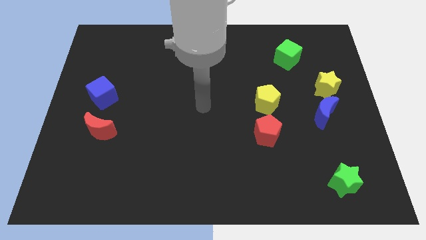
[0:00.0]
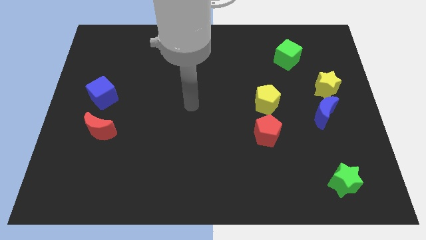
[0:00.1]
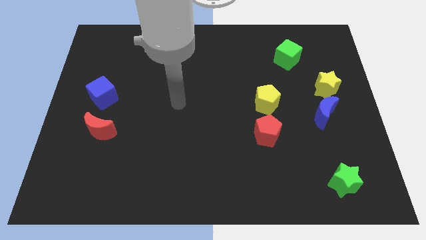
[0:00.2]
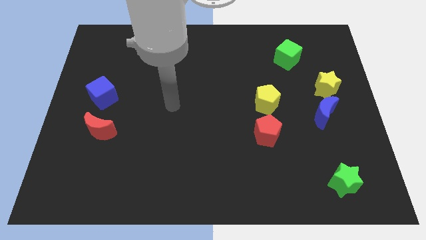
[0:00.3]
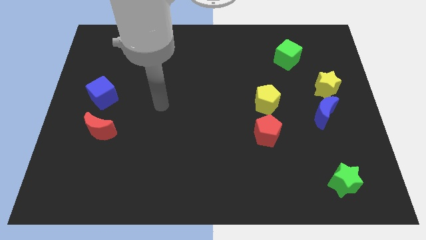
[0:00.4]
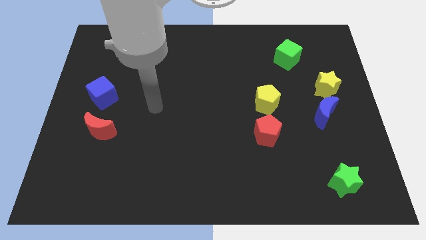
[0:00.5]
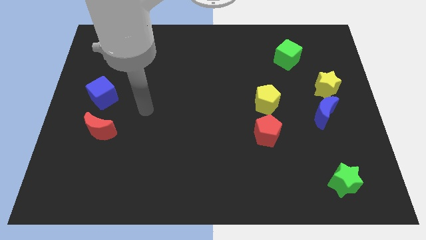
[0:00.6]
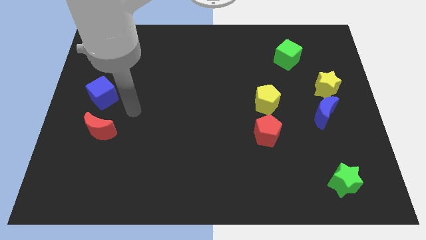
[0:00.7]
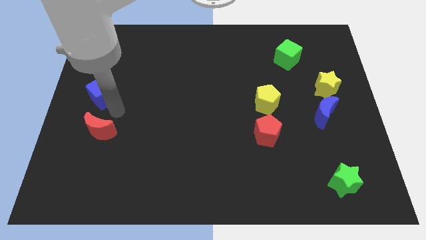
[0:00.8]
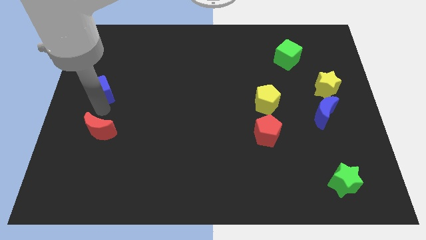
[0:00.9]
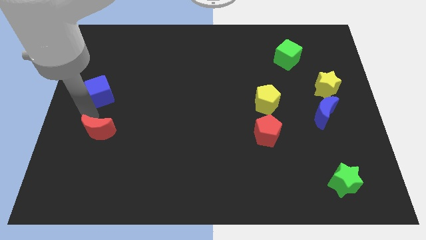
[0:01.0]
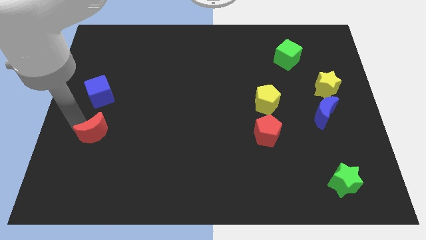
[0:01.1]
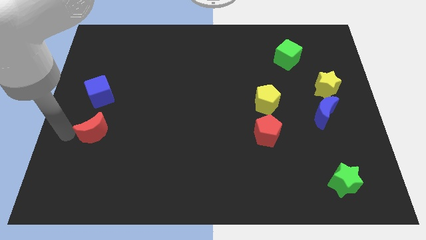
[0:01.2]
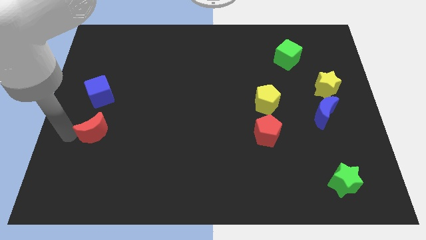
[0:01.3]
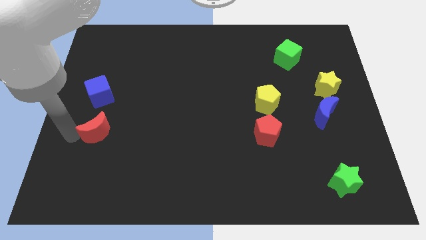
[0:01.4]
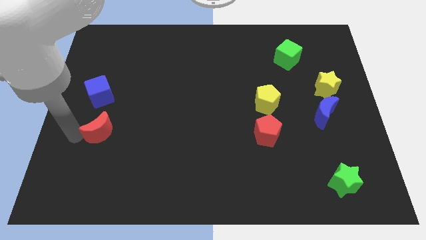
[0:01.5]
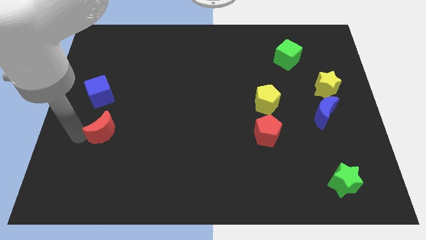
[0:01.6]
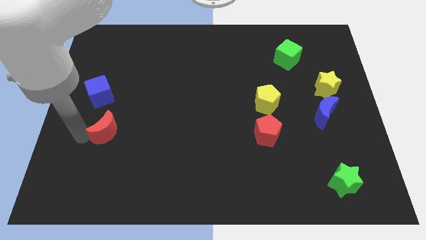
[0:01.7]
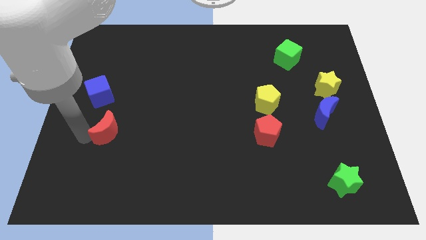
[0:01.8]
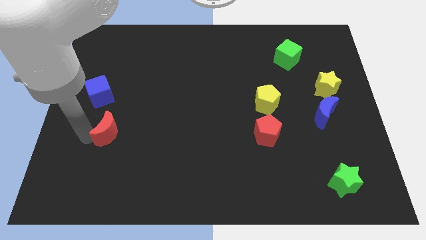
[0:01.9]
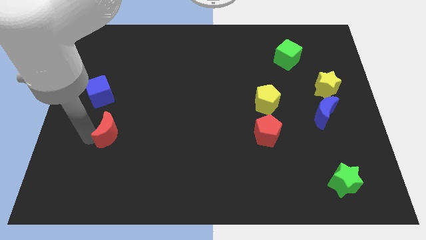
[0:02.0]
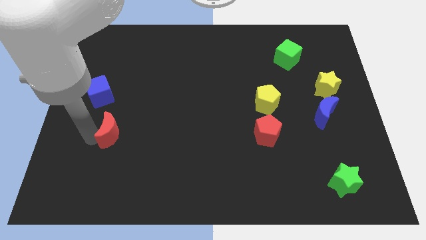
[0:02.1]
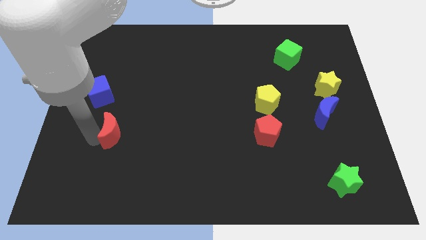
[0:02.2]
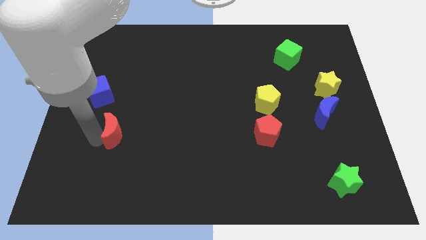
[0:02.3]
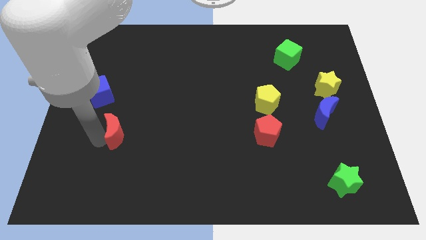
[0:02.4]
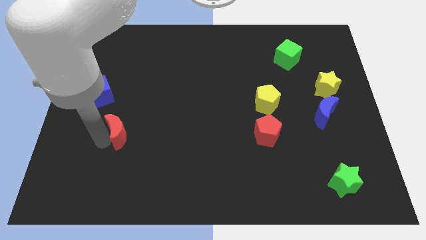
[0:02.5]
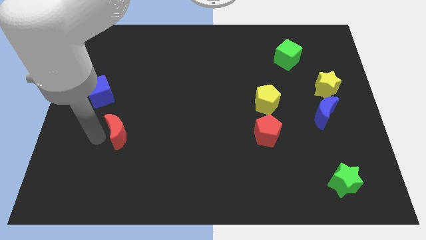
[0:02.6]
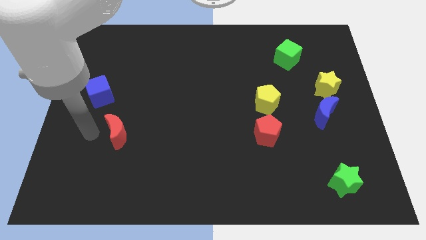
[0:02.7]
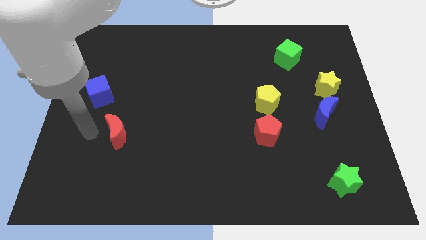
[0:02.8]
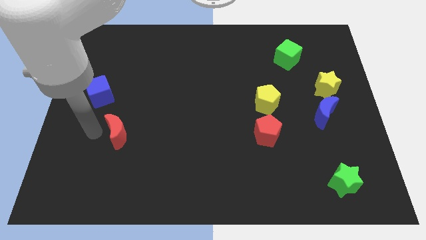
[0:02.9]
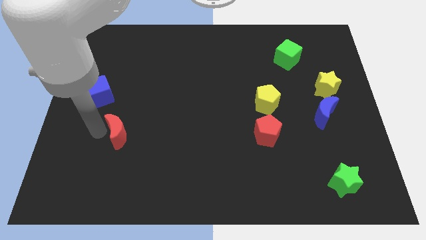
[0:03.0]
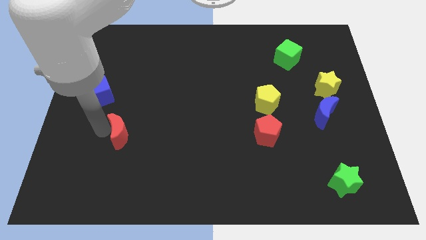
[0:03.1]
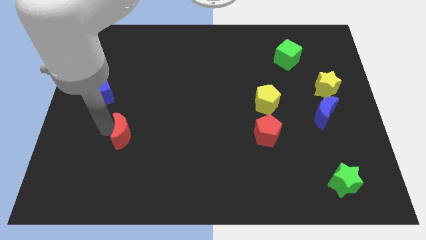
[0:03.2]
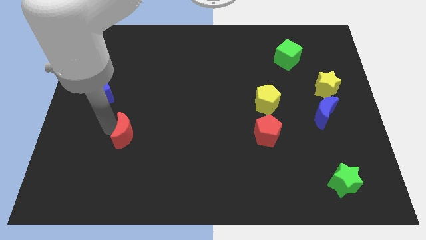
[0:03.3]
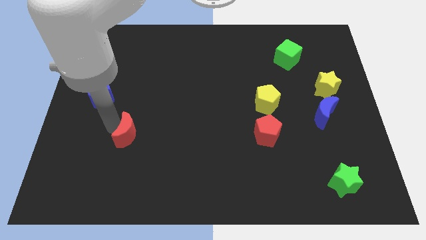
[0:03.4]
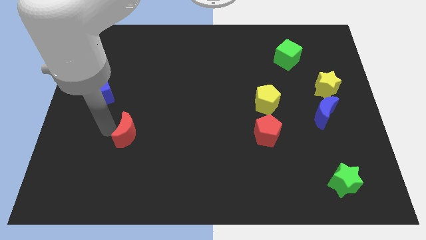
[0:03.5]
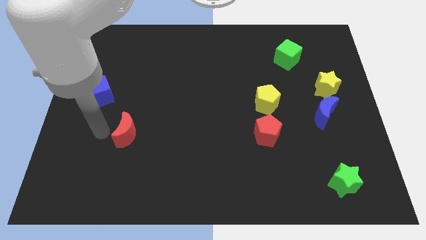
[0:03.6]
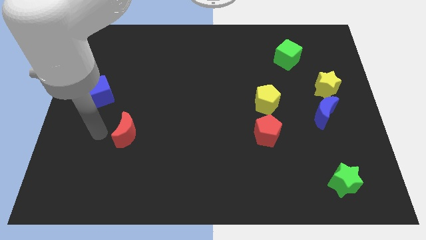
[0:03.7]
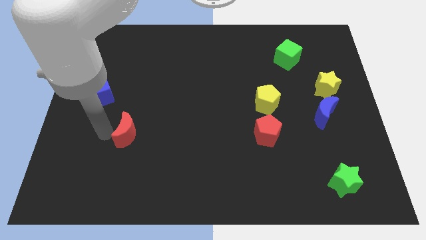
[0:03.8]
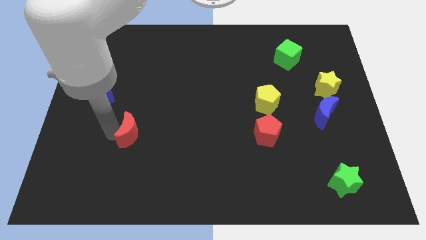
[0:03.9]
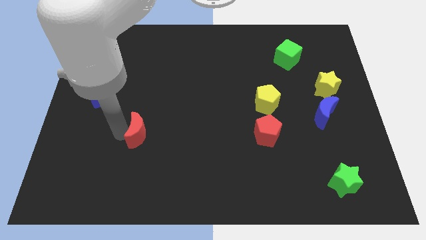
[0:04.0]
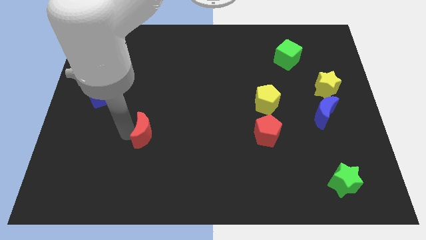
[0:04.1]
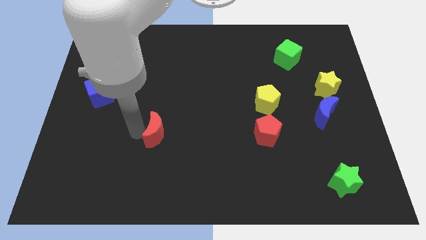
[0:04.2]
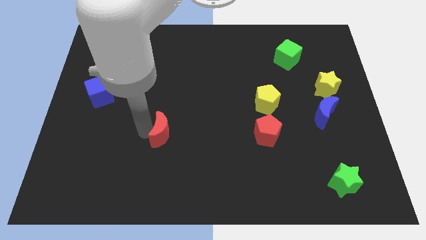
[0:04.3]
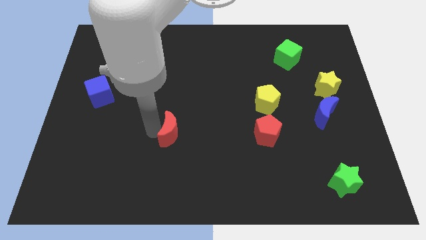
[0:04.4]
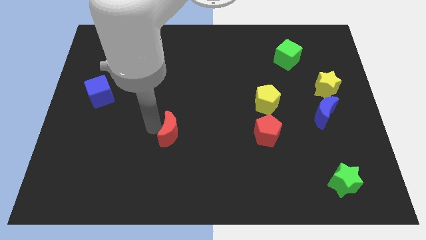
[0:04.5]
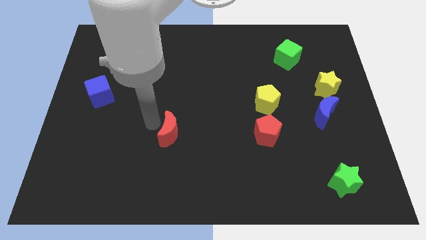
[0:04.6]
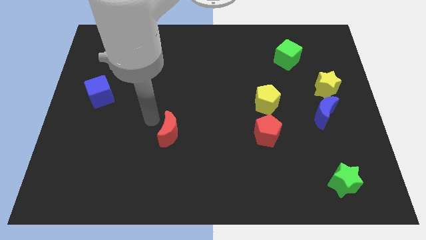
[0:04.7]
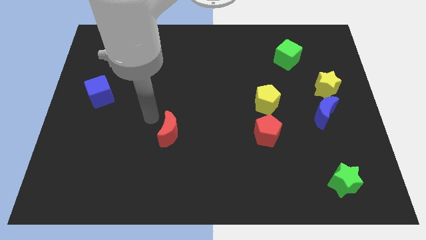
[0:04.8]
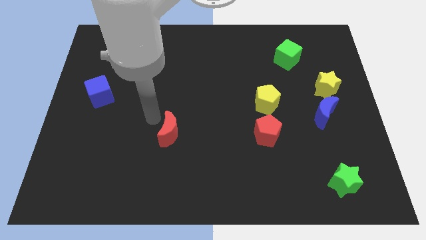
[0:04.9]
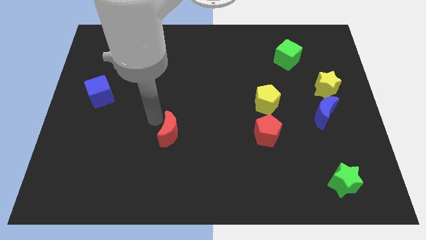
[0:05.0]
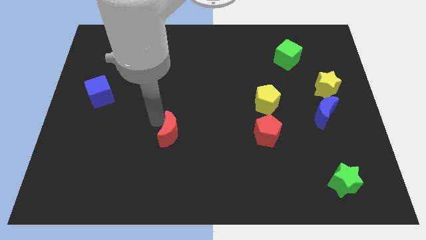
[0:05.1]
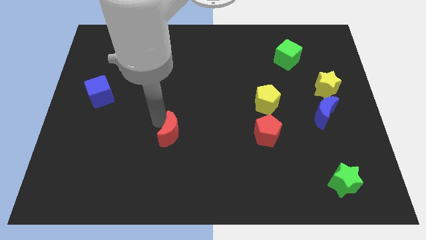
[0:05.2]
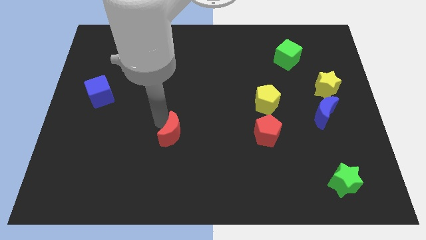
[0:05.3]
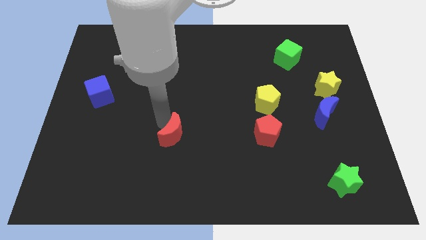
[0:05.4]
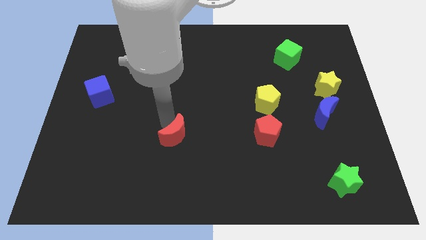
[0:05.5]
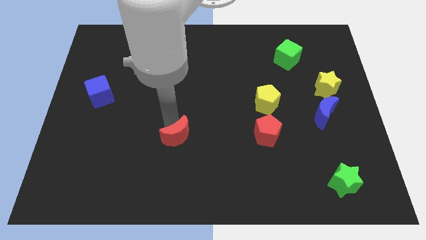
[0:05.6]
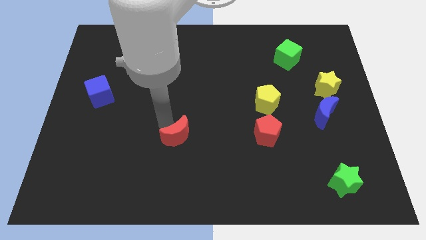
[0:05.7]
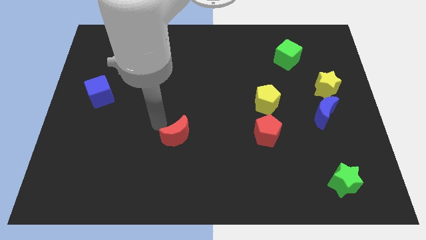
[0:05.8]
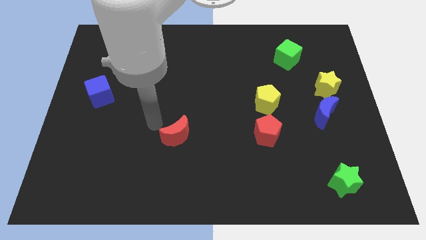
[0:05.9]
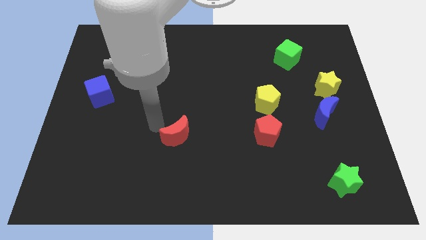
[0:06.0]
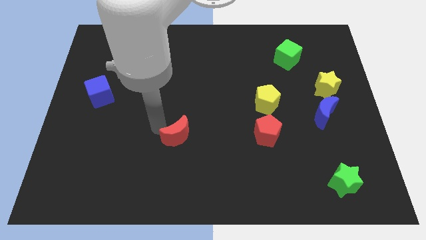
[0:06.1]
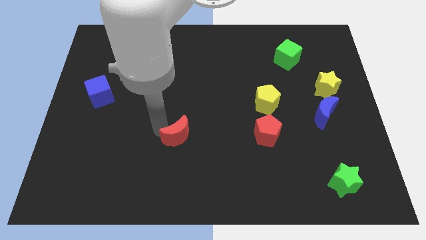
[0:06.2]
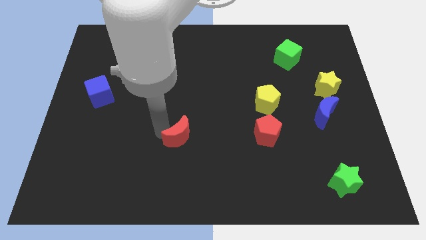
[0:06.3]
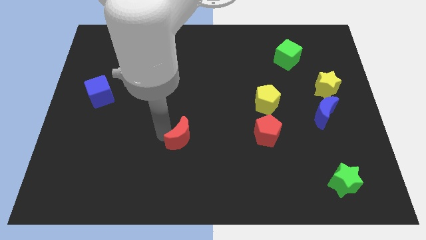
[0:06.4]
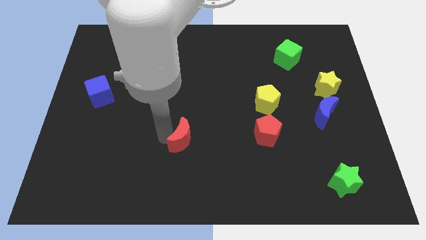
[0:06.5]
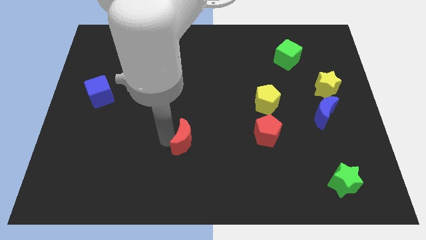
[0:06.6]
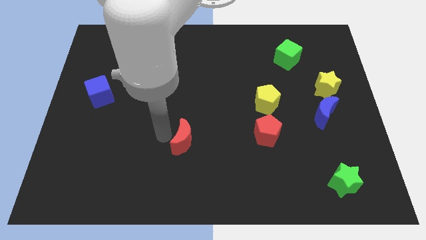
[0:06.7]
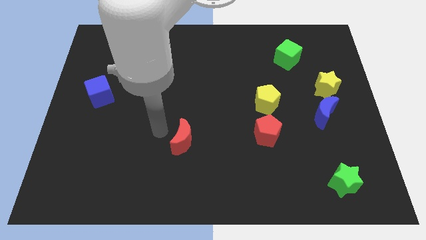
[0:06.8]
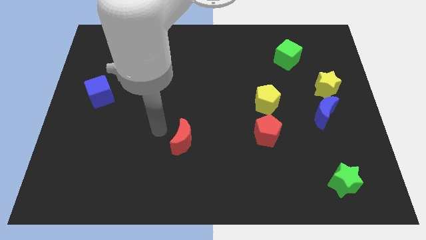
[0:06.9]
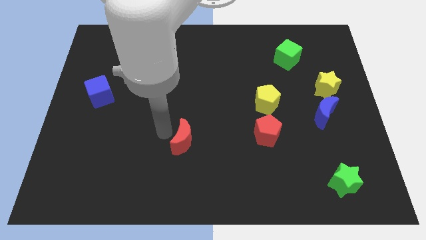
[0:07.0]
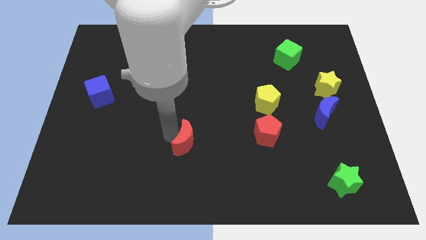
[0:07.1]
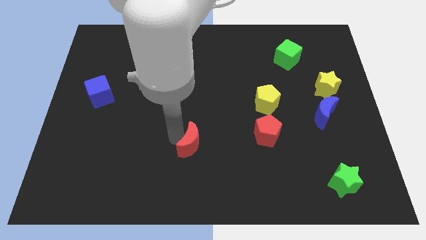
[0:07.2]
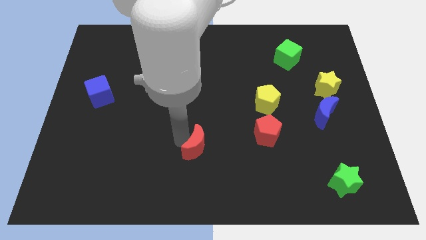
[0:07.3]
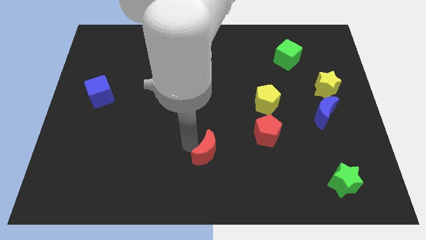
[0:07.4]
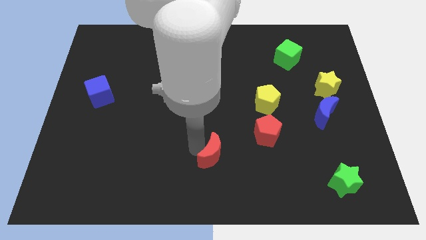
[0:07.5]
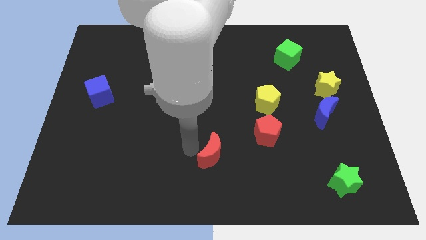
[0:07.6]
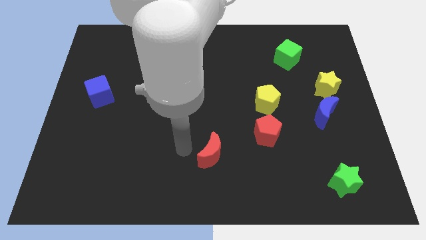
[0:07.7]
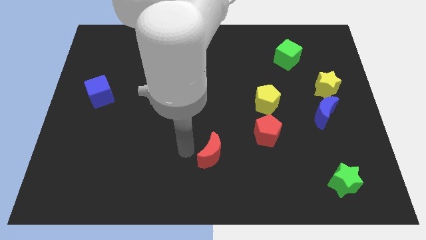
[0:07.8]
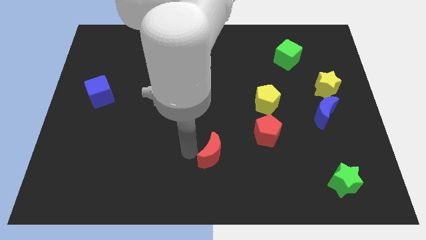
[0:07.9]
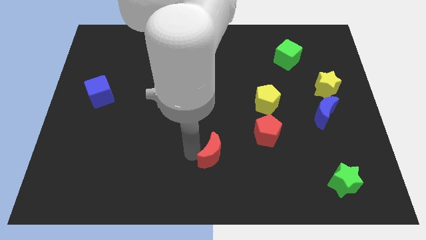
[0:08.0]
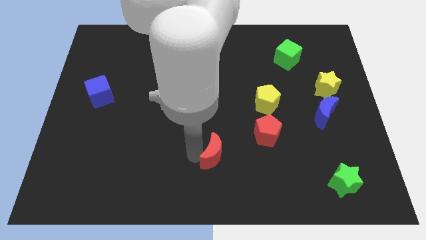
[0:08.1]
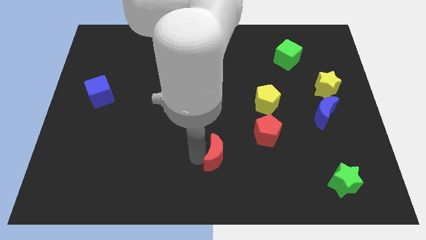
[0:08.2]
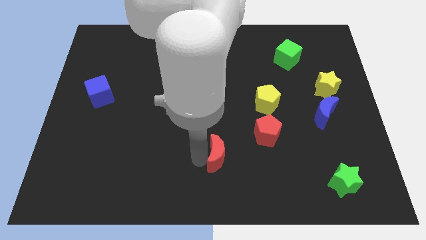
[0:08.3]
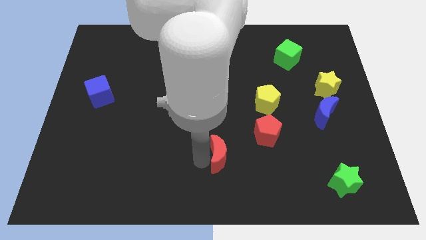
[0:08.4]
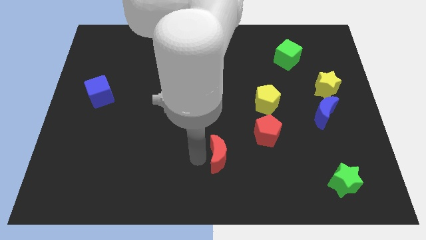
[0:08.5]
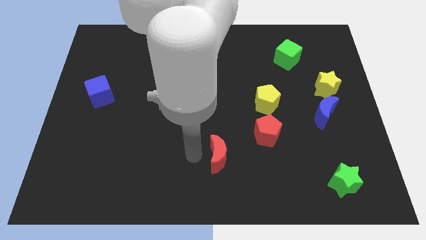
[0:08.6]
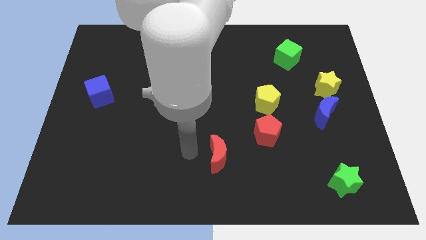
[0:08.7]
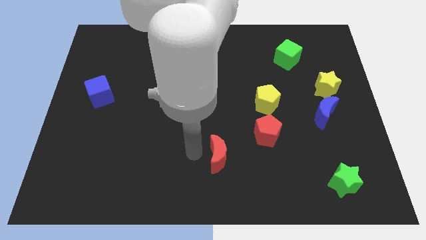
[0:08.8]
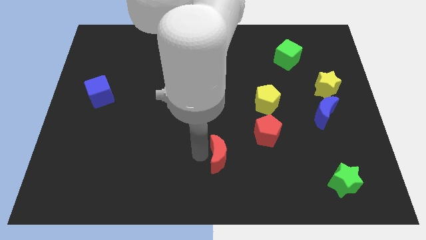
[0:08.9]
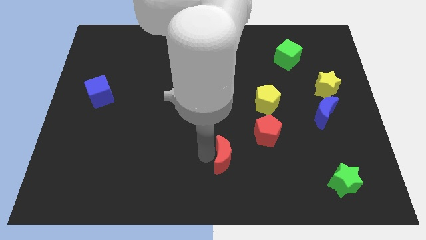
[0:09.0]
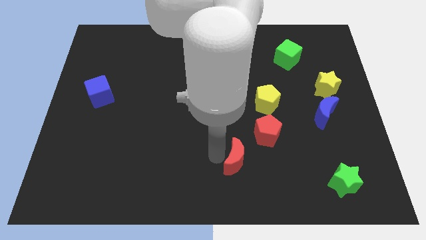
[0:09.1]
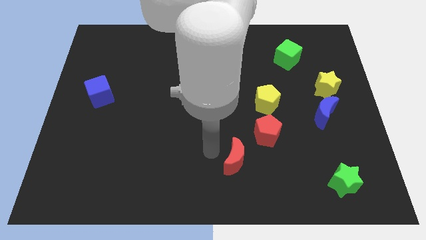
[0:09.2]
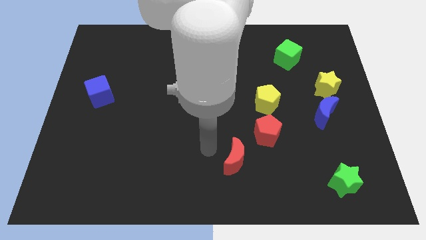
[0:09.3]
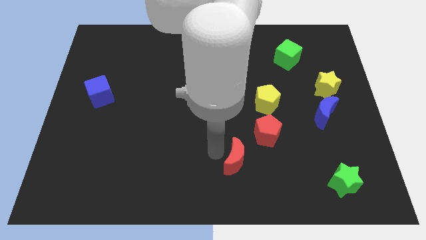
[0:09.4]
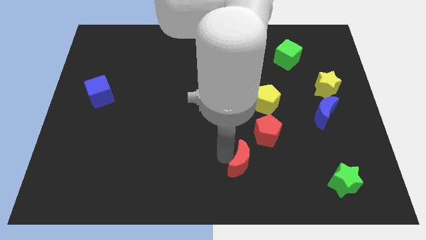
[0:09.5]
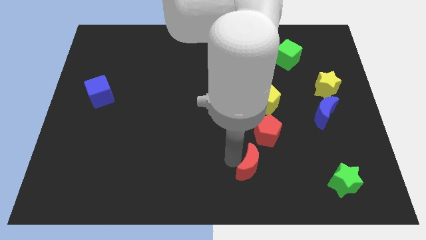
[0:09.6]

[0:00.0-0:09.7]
move the red moon to the bottom of the red pentagon
